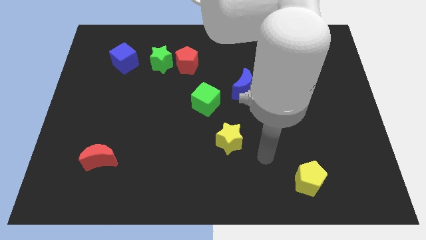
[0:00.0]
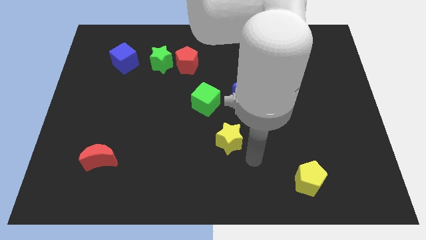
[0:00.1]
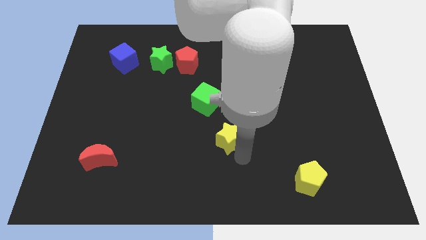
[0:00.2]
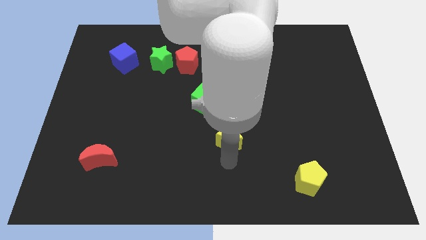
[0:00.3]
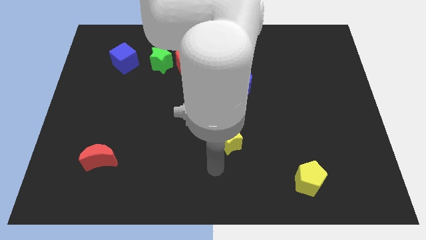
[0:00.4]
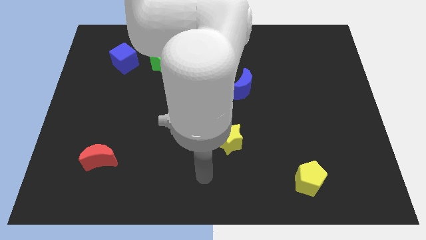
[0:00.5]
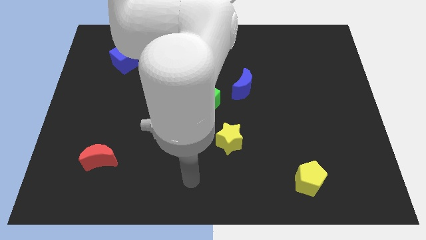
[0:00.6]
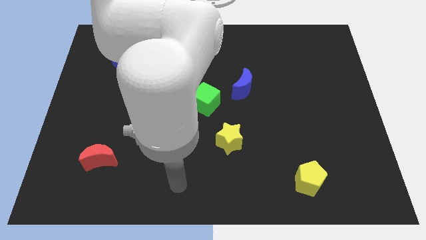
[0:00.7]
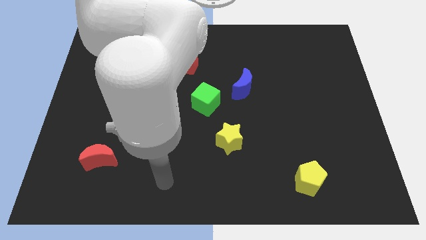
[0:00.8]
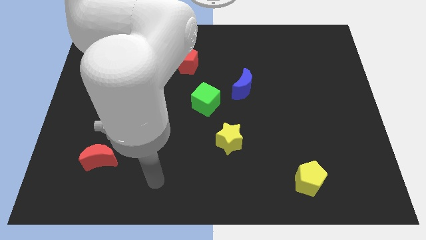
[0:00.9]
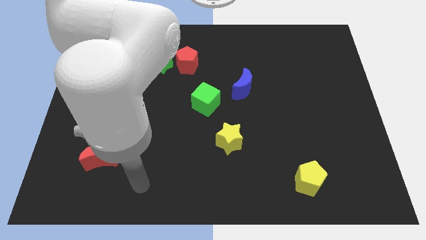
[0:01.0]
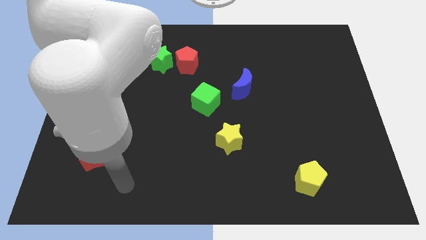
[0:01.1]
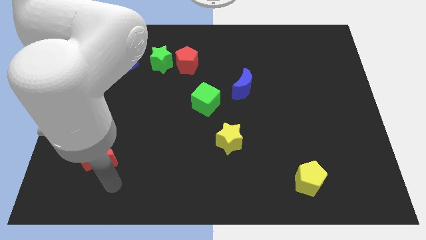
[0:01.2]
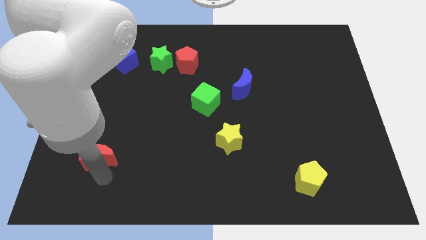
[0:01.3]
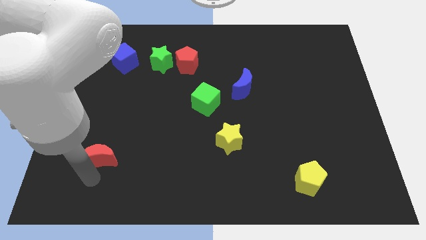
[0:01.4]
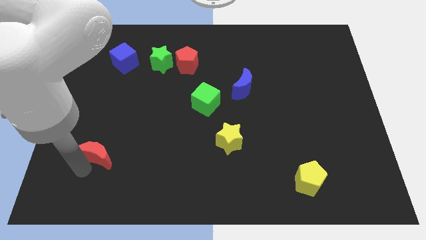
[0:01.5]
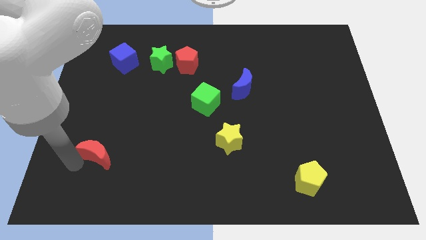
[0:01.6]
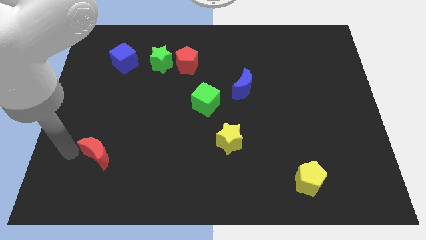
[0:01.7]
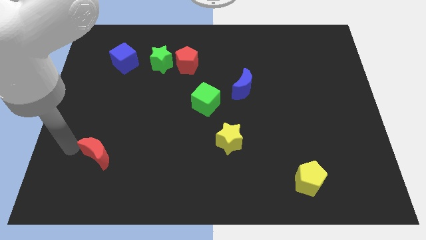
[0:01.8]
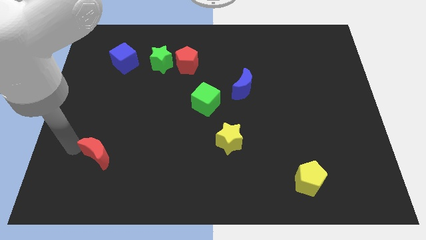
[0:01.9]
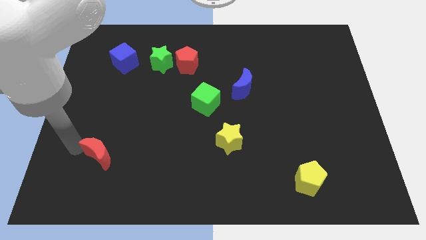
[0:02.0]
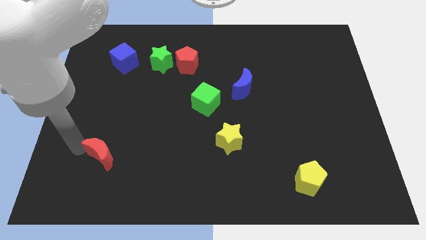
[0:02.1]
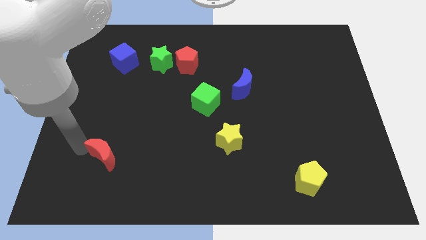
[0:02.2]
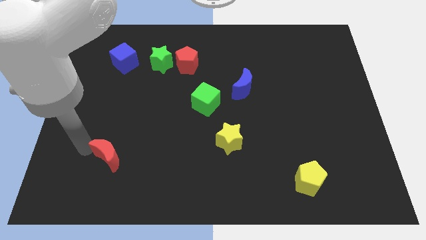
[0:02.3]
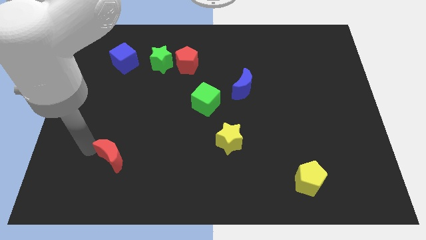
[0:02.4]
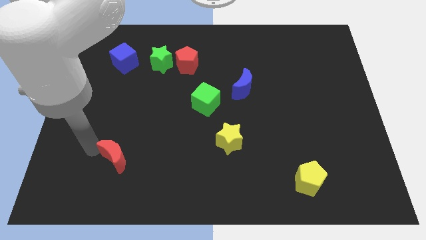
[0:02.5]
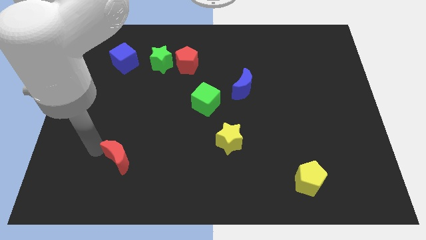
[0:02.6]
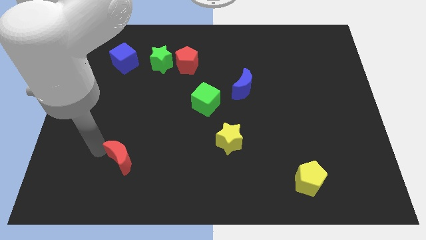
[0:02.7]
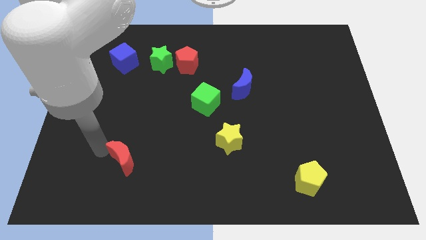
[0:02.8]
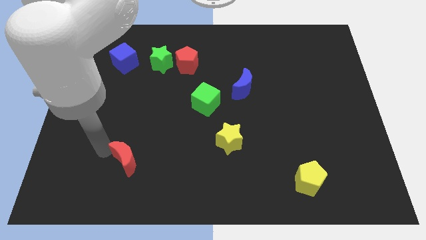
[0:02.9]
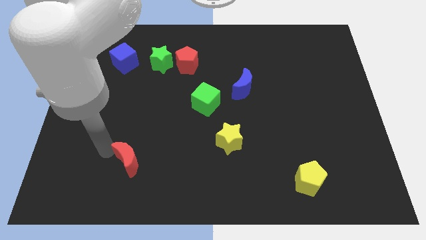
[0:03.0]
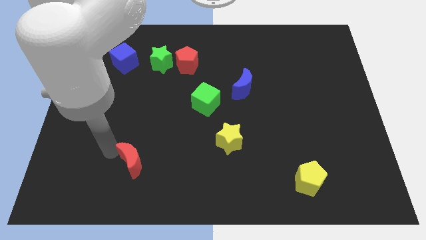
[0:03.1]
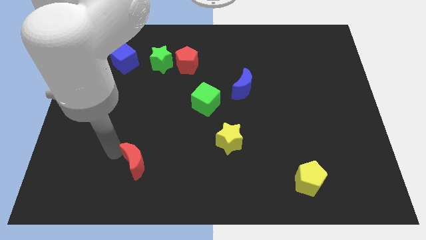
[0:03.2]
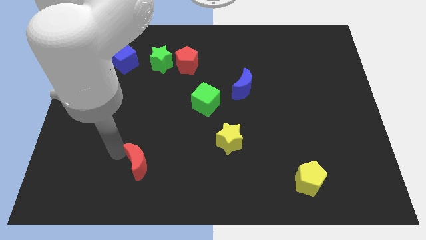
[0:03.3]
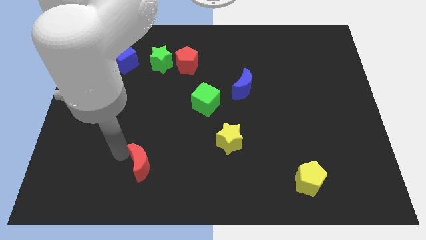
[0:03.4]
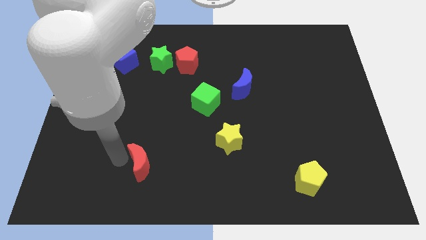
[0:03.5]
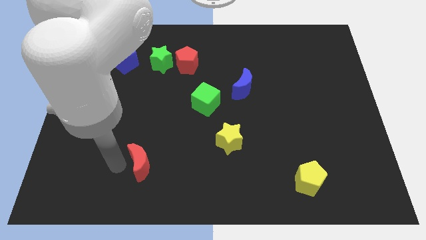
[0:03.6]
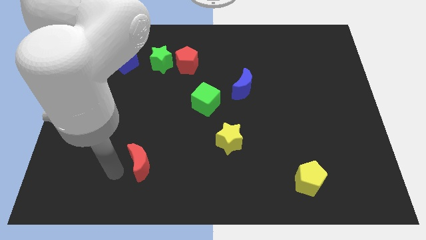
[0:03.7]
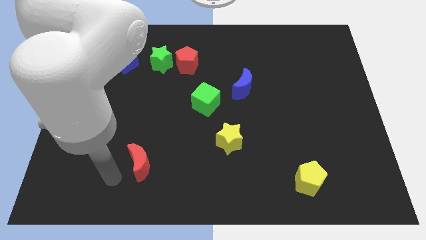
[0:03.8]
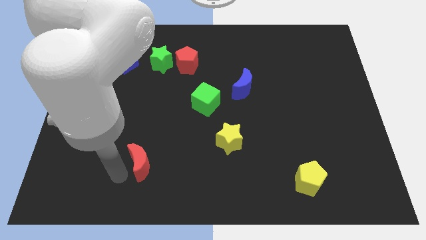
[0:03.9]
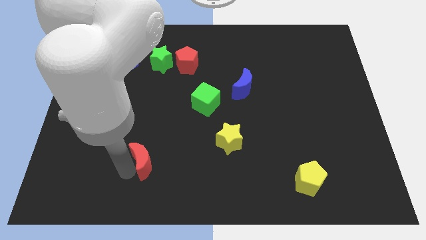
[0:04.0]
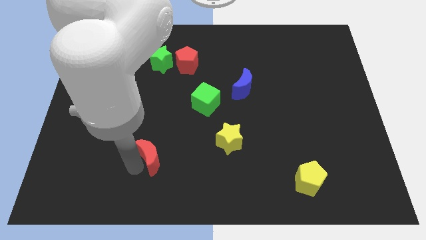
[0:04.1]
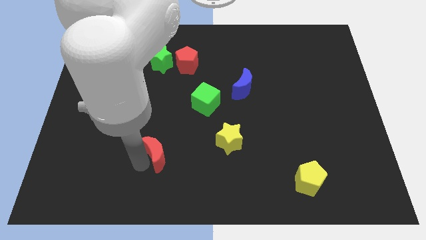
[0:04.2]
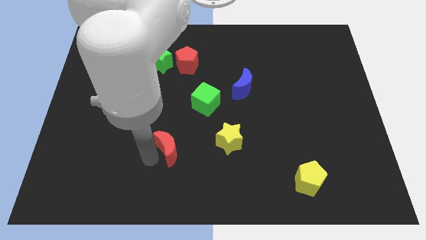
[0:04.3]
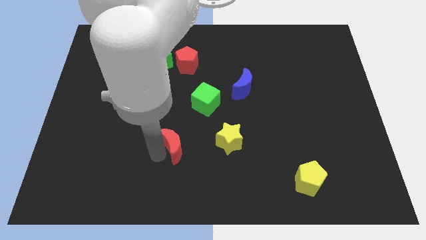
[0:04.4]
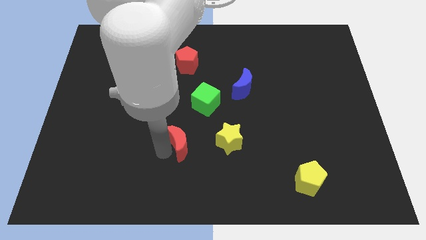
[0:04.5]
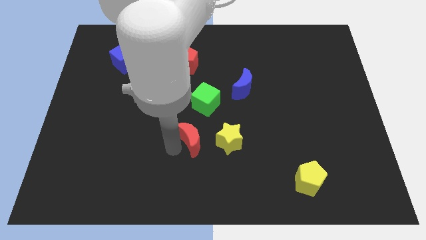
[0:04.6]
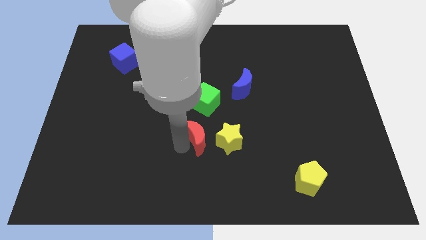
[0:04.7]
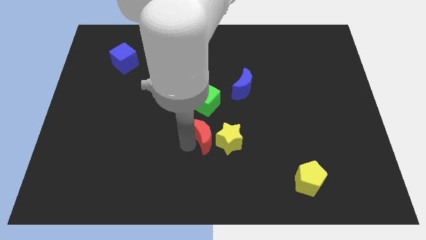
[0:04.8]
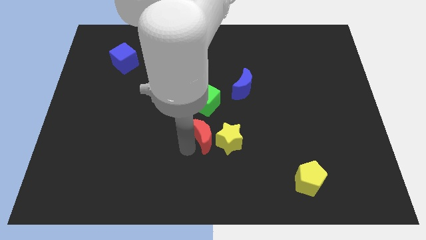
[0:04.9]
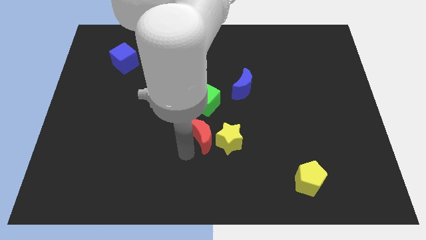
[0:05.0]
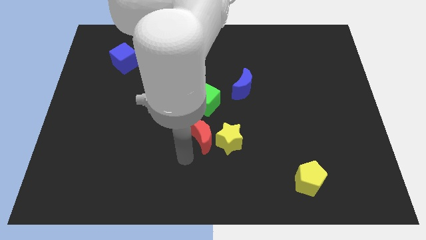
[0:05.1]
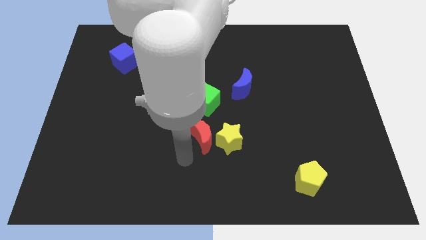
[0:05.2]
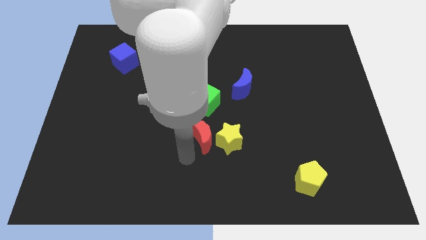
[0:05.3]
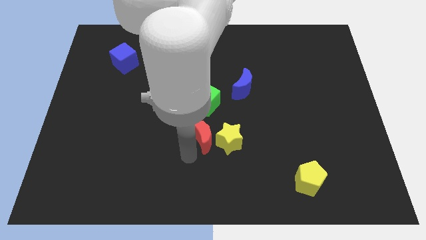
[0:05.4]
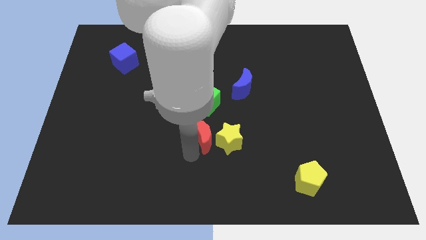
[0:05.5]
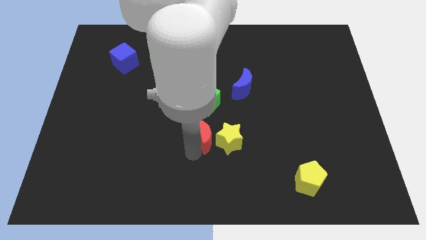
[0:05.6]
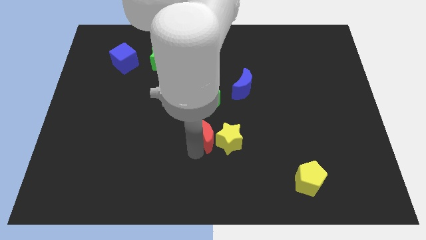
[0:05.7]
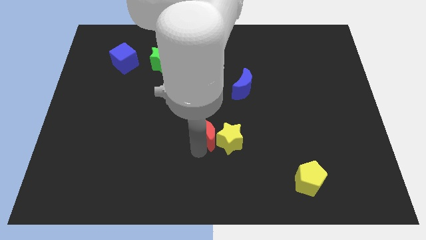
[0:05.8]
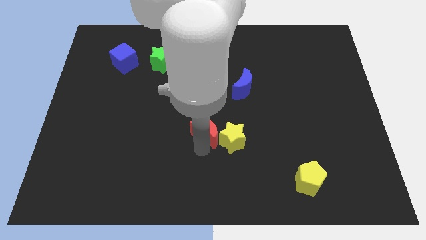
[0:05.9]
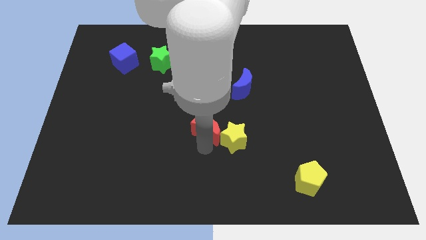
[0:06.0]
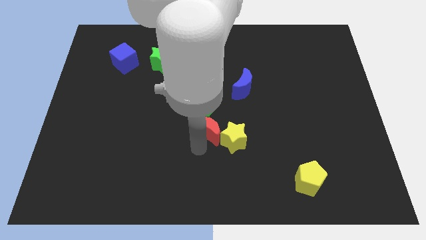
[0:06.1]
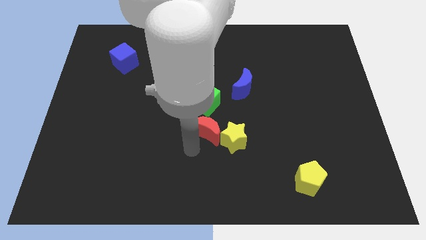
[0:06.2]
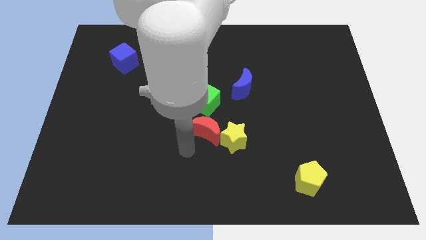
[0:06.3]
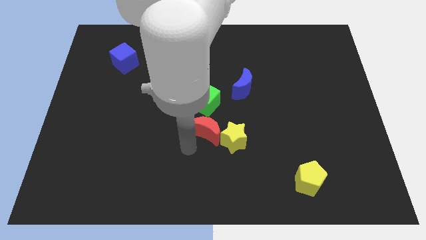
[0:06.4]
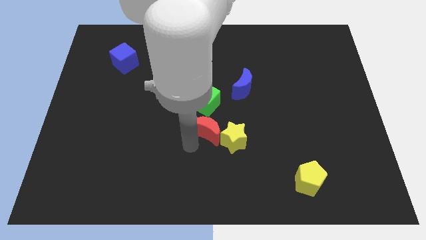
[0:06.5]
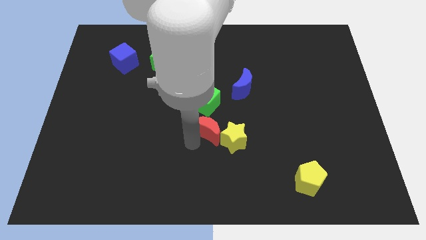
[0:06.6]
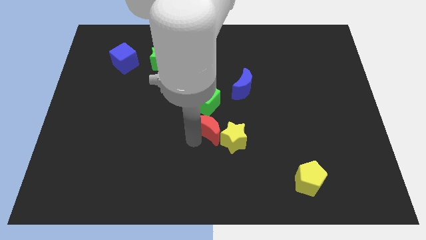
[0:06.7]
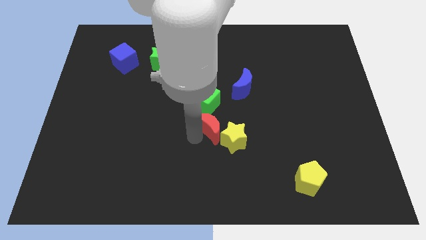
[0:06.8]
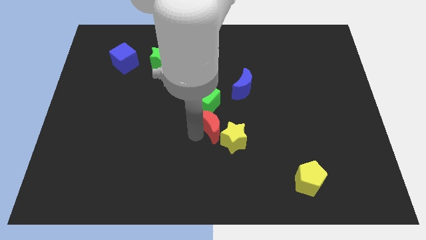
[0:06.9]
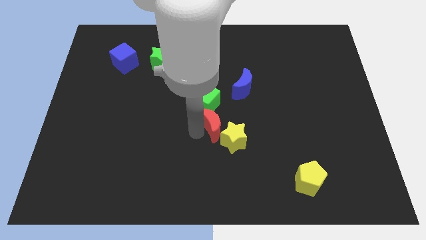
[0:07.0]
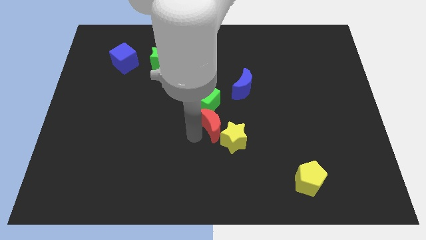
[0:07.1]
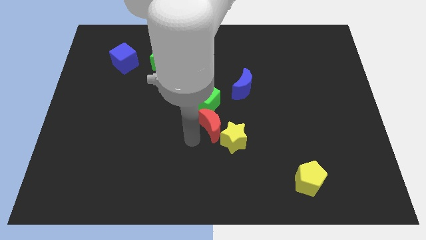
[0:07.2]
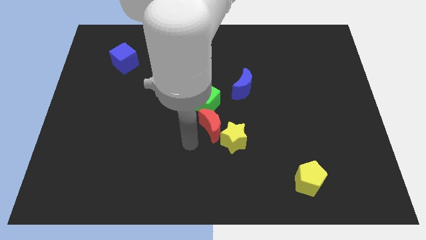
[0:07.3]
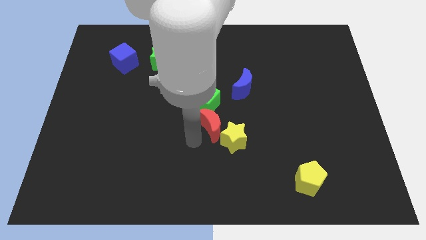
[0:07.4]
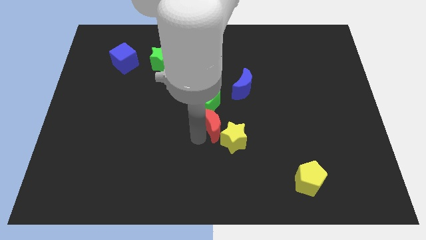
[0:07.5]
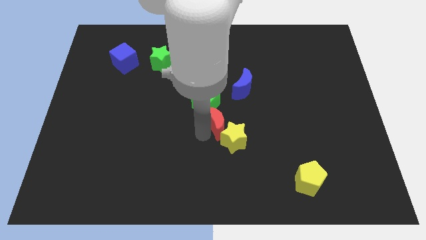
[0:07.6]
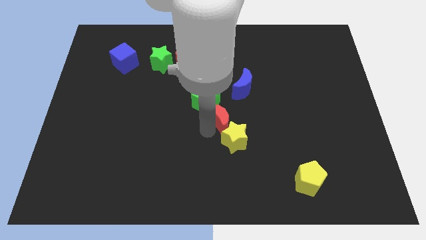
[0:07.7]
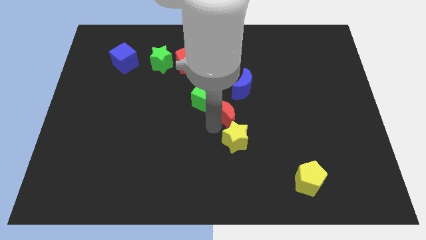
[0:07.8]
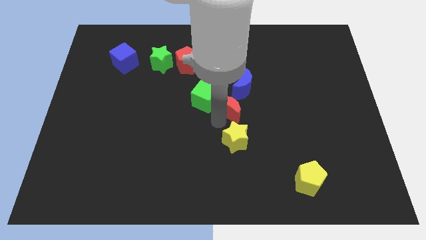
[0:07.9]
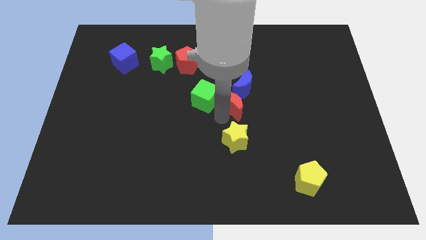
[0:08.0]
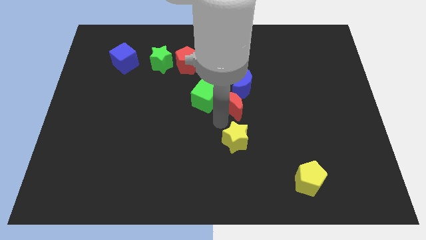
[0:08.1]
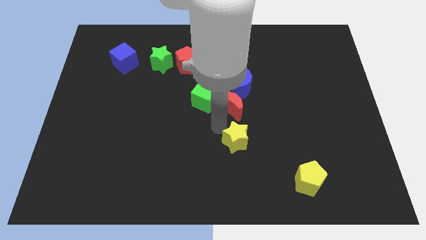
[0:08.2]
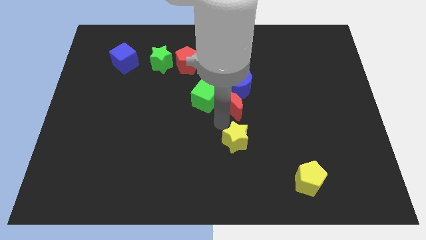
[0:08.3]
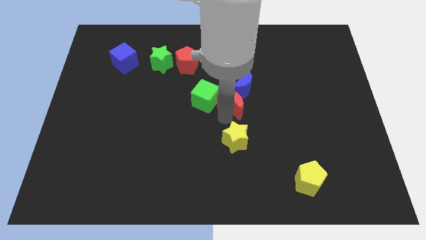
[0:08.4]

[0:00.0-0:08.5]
put the red moon to the blue moon
